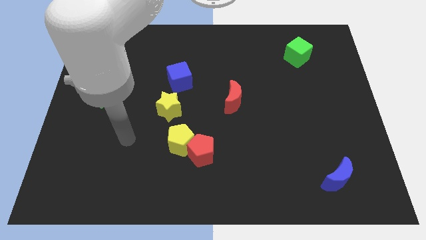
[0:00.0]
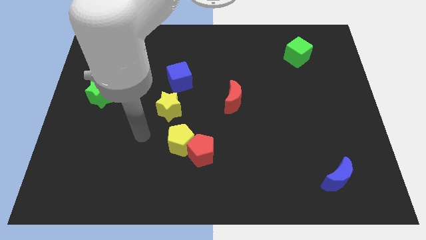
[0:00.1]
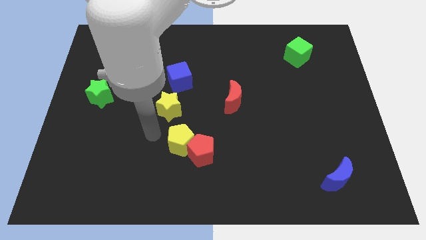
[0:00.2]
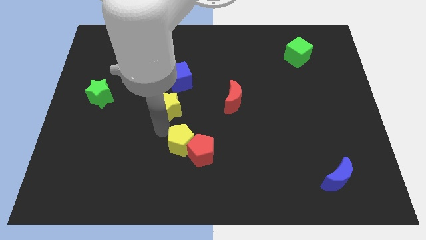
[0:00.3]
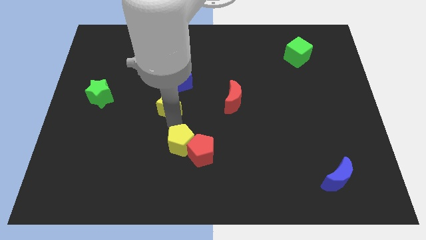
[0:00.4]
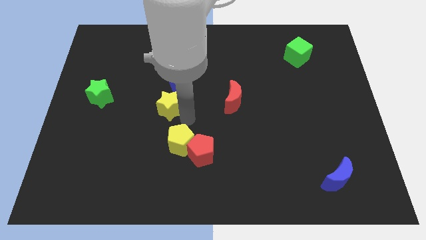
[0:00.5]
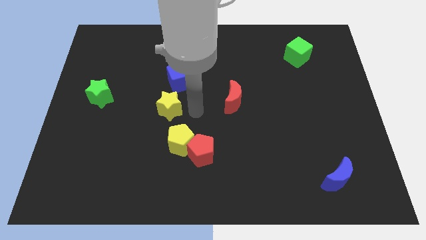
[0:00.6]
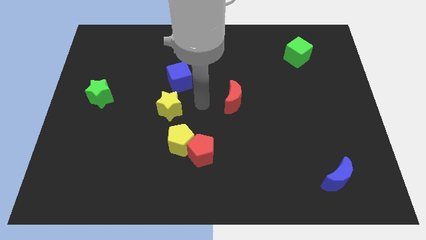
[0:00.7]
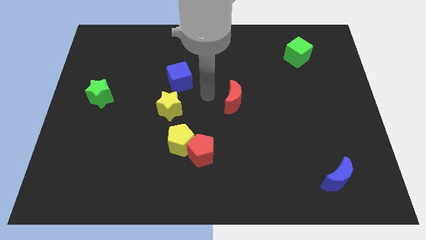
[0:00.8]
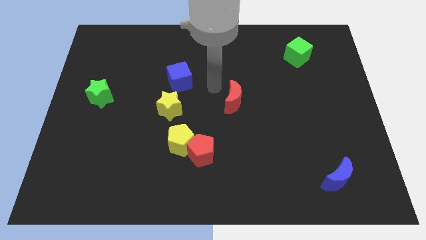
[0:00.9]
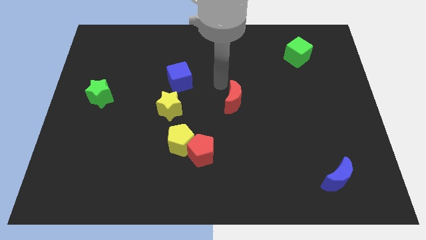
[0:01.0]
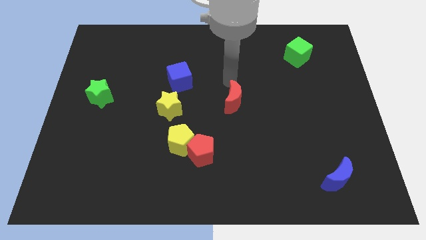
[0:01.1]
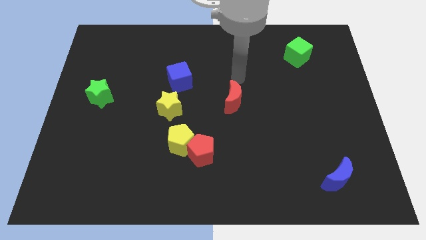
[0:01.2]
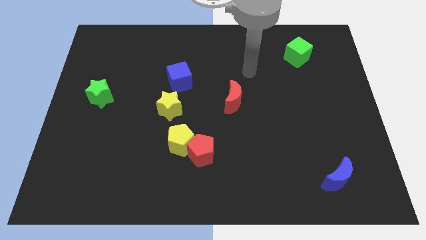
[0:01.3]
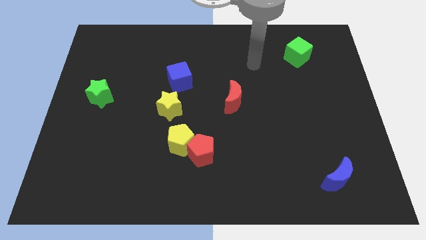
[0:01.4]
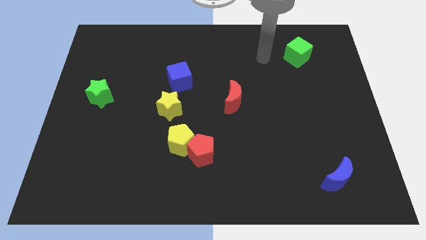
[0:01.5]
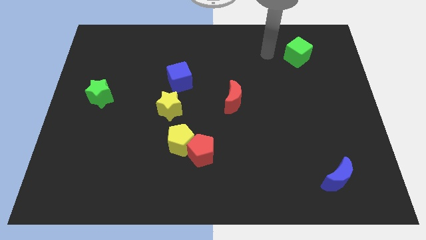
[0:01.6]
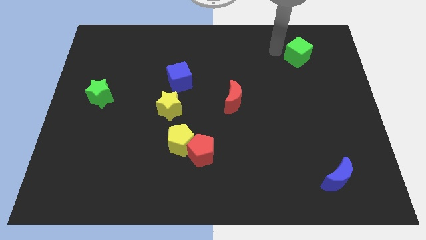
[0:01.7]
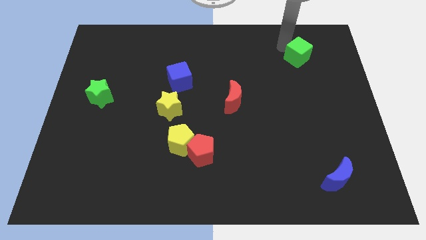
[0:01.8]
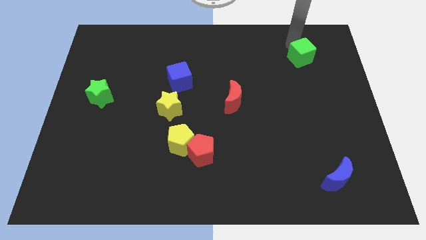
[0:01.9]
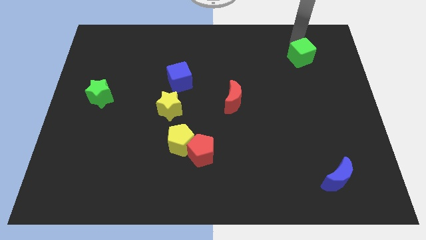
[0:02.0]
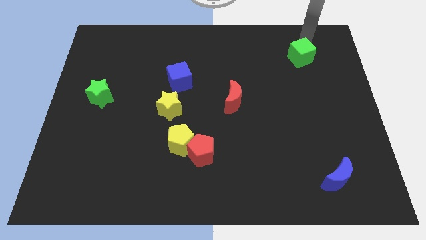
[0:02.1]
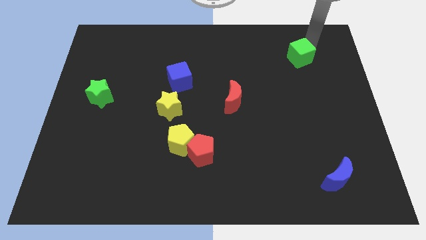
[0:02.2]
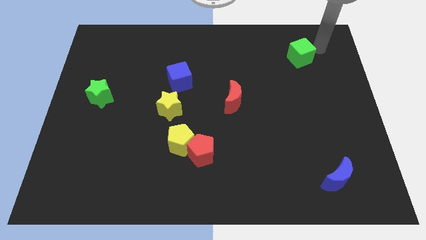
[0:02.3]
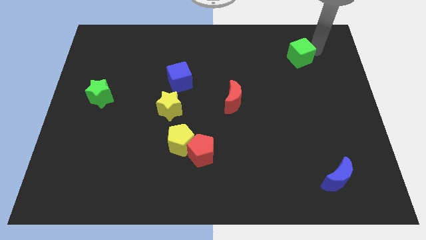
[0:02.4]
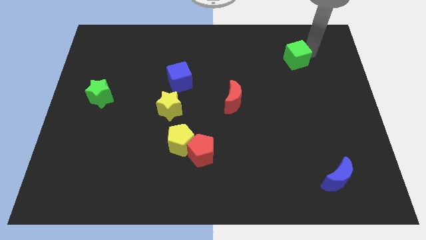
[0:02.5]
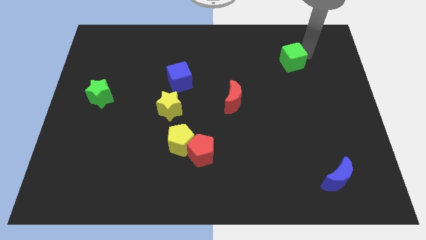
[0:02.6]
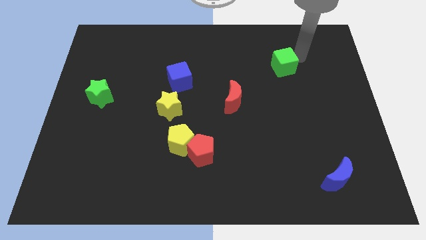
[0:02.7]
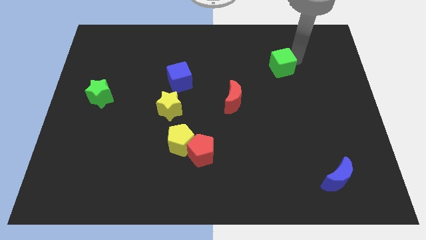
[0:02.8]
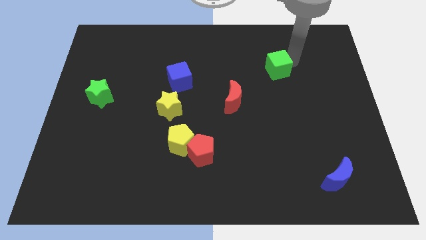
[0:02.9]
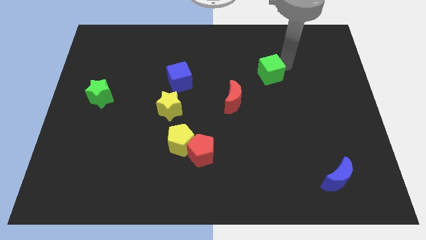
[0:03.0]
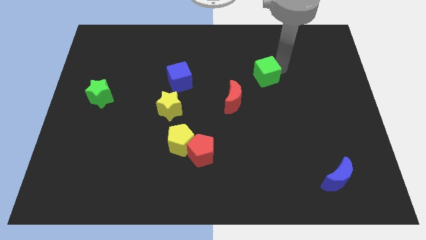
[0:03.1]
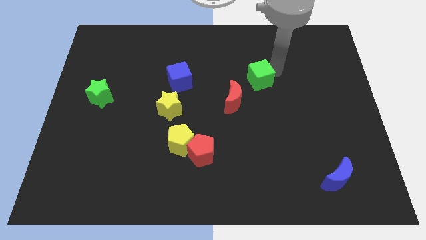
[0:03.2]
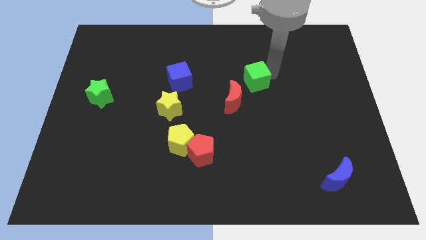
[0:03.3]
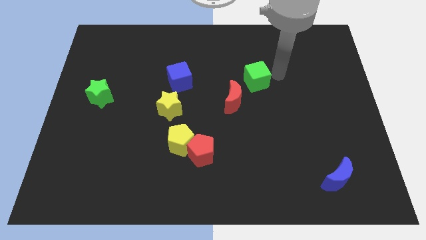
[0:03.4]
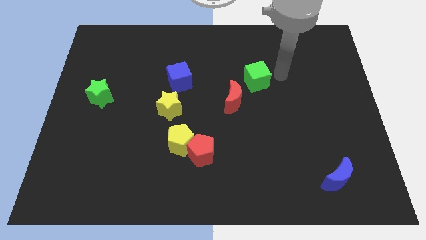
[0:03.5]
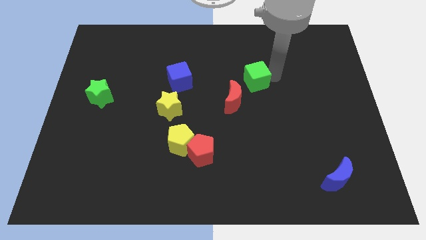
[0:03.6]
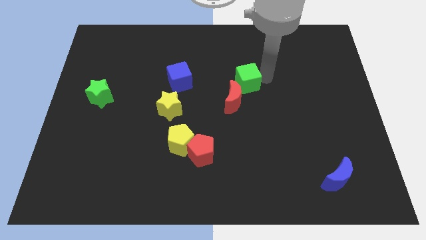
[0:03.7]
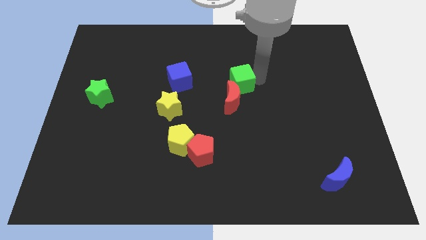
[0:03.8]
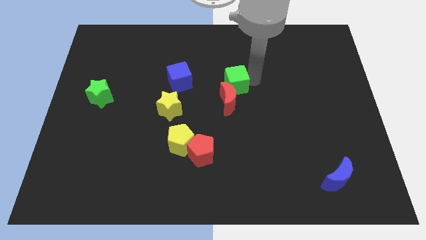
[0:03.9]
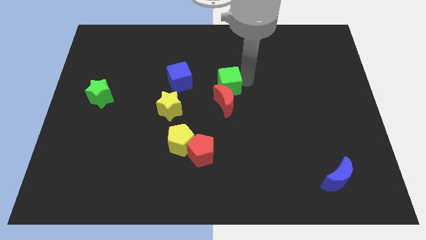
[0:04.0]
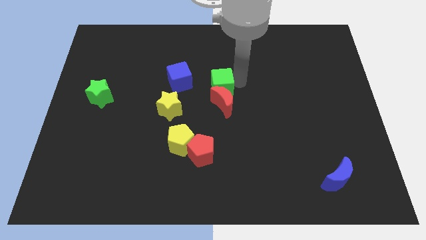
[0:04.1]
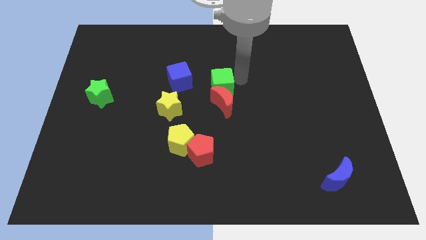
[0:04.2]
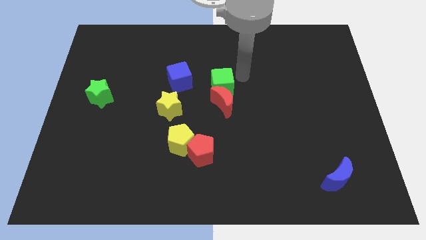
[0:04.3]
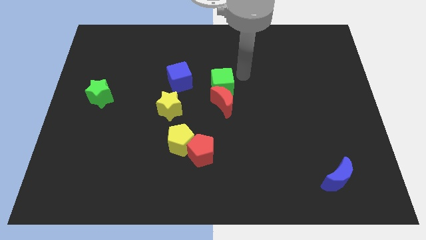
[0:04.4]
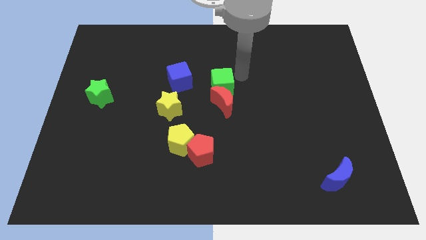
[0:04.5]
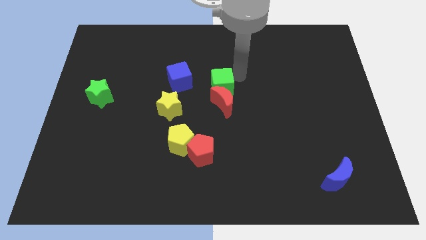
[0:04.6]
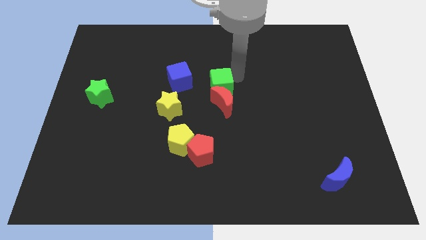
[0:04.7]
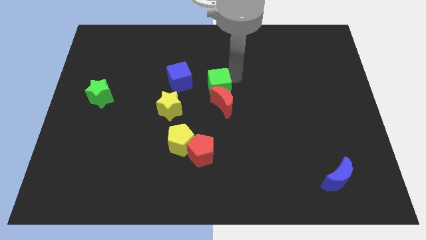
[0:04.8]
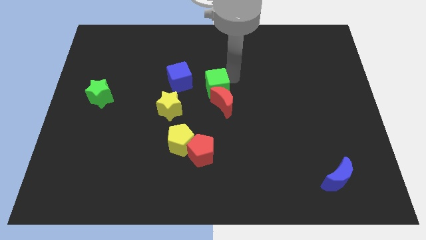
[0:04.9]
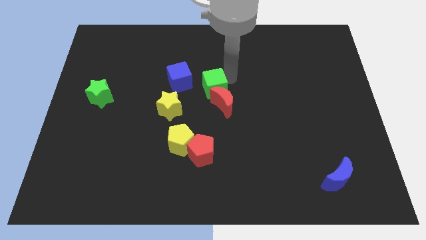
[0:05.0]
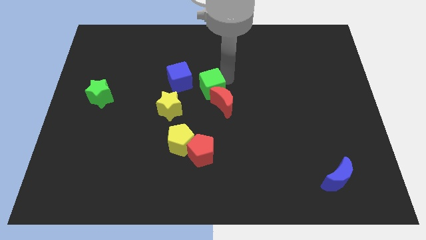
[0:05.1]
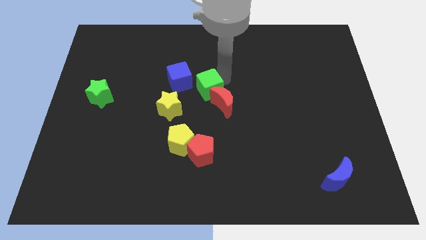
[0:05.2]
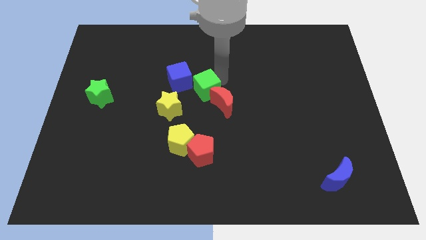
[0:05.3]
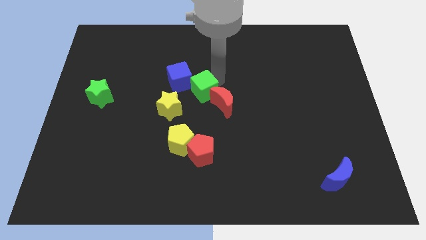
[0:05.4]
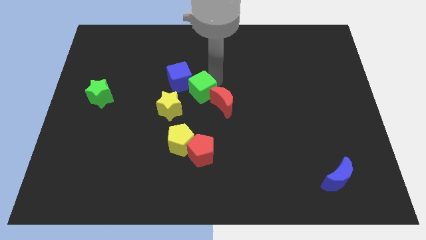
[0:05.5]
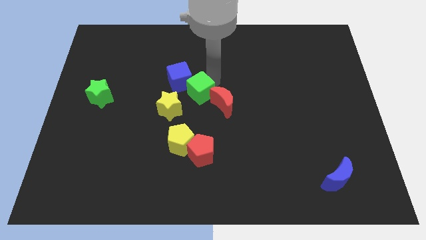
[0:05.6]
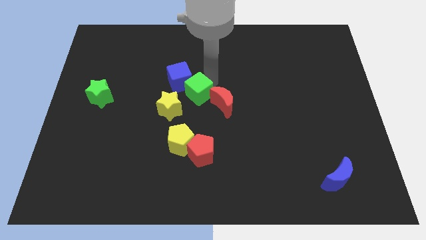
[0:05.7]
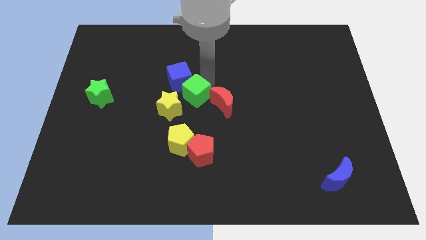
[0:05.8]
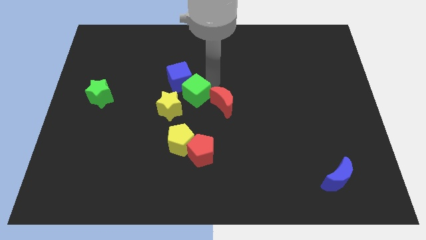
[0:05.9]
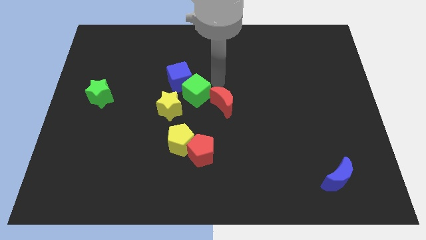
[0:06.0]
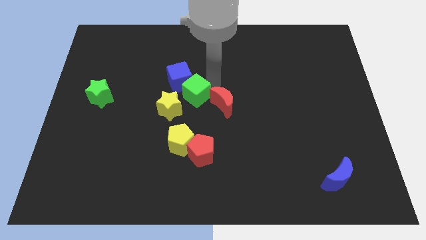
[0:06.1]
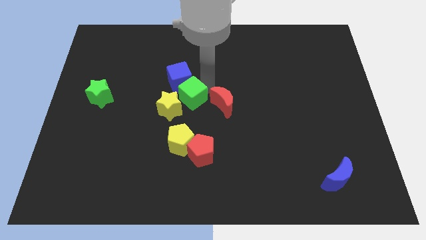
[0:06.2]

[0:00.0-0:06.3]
move the green cube to the yellow star

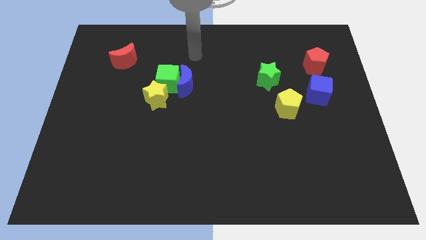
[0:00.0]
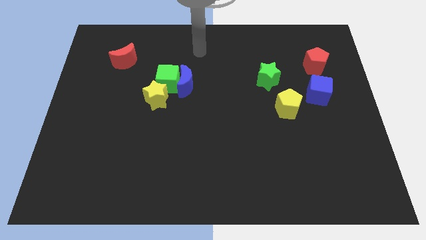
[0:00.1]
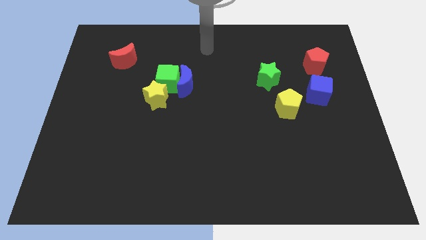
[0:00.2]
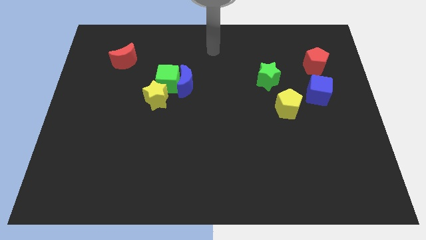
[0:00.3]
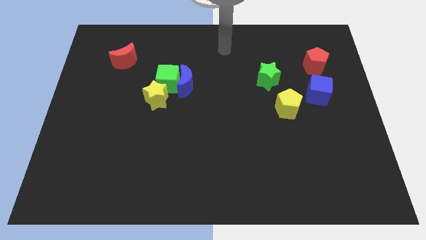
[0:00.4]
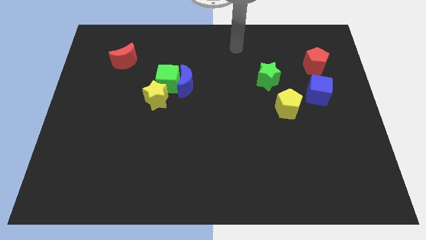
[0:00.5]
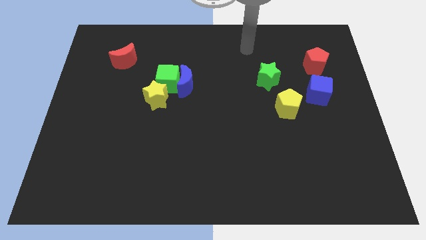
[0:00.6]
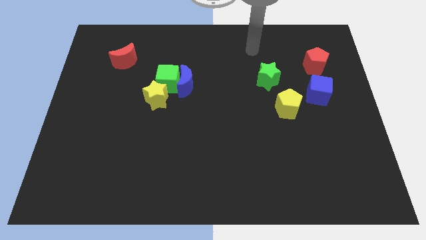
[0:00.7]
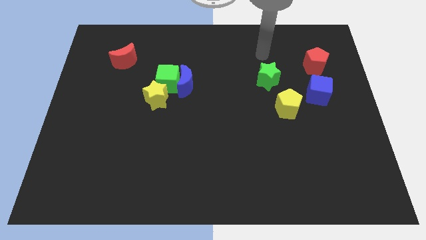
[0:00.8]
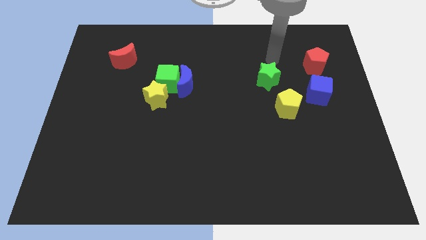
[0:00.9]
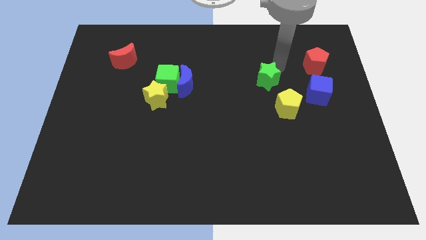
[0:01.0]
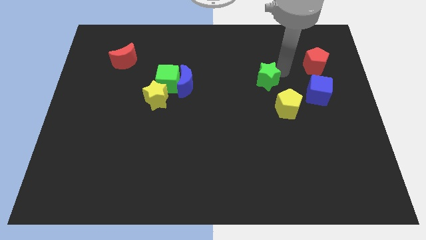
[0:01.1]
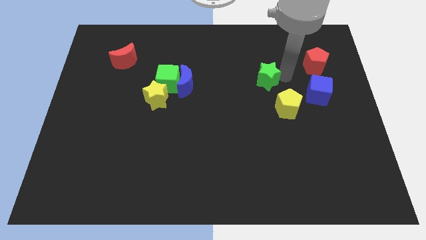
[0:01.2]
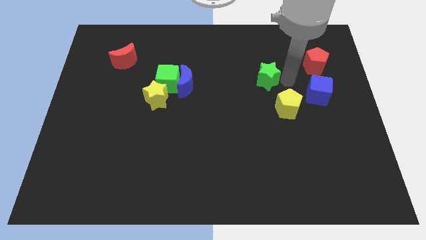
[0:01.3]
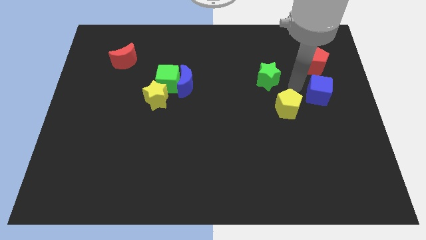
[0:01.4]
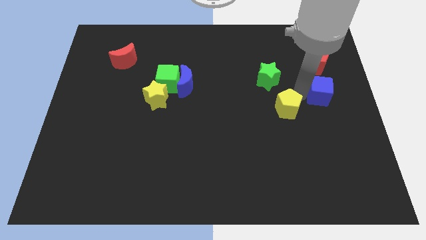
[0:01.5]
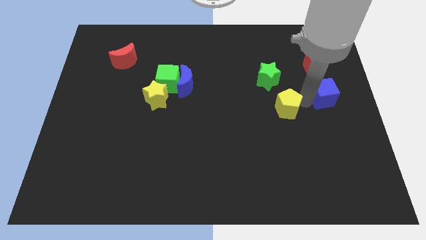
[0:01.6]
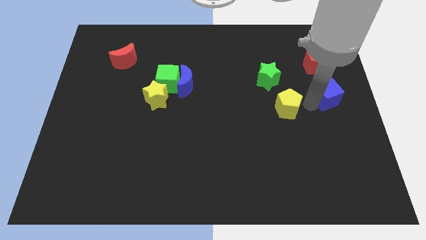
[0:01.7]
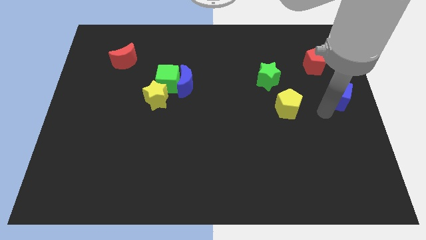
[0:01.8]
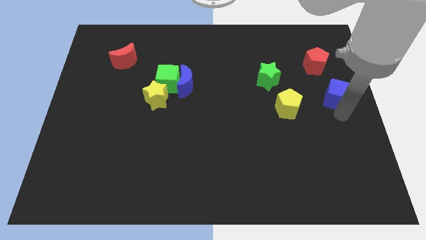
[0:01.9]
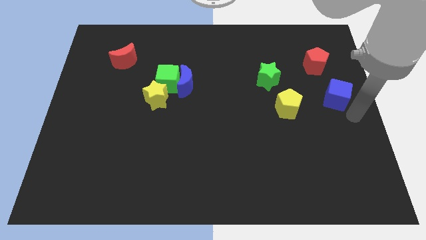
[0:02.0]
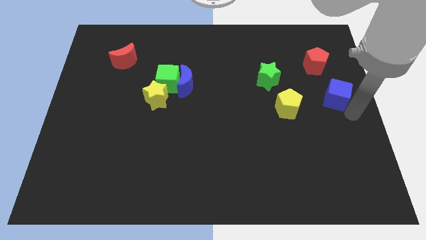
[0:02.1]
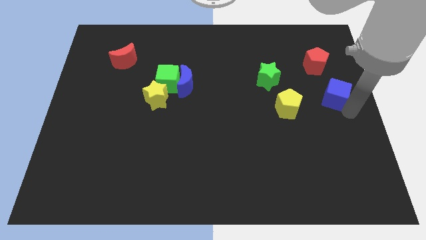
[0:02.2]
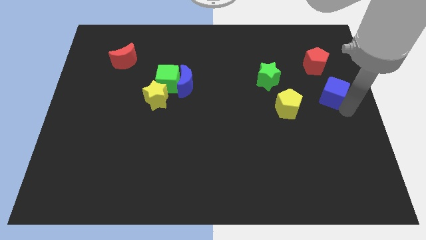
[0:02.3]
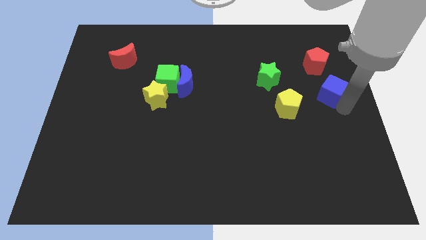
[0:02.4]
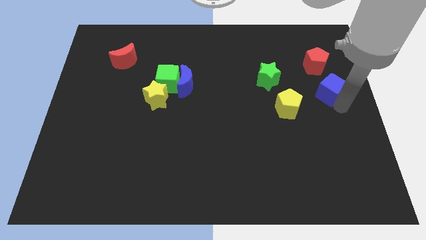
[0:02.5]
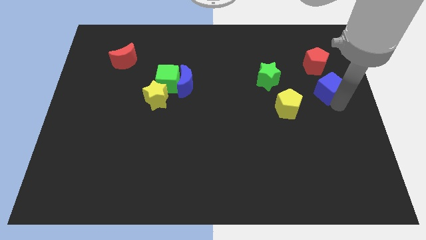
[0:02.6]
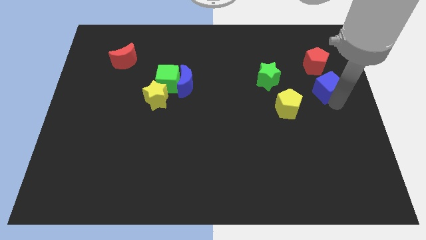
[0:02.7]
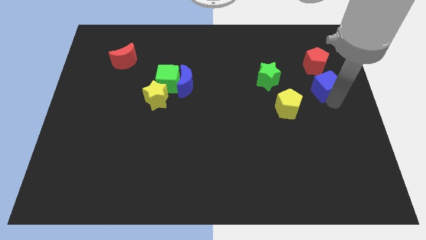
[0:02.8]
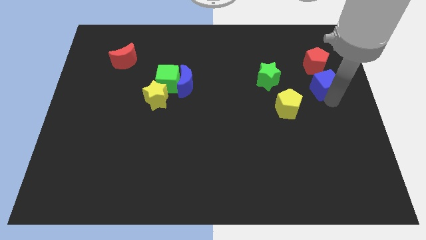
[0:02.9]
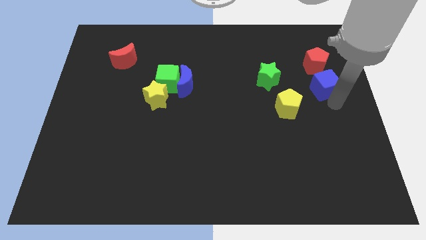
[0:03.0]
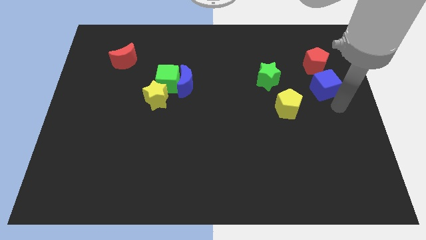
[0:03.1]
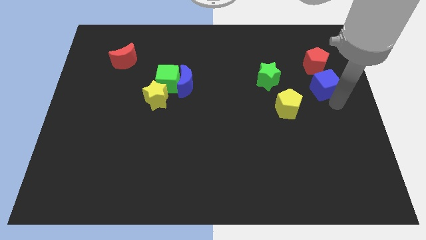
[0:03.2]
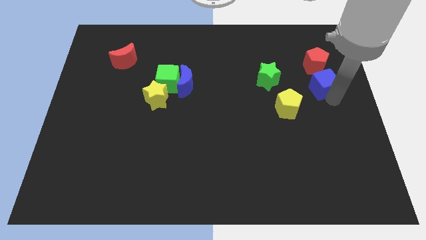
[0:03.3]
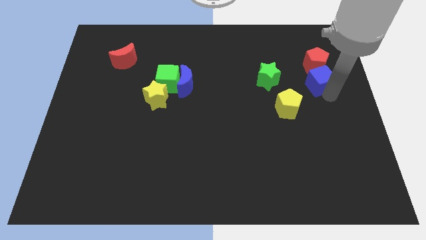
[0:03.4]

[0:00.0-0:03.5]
push the blue cube close to the red pentagon
